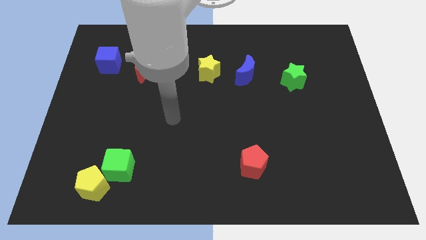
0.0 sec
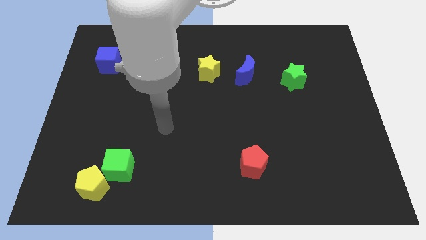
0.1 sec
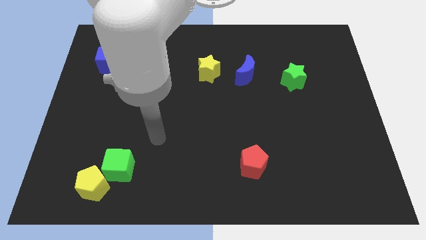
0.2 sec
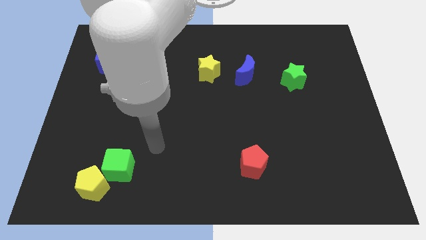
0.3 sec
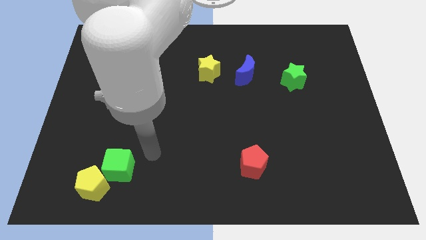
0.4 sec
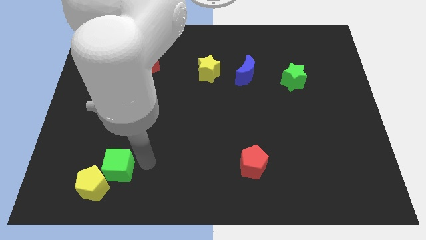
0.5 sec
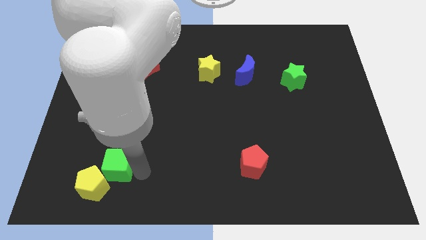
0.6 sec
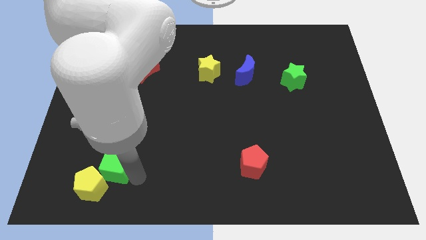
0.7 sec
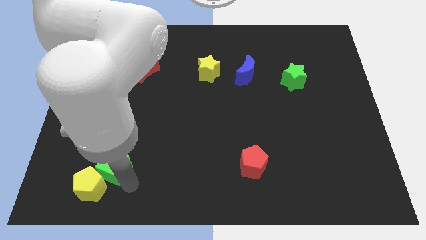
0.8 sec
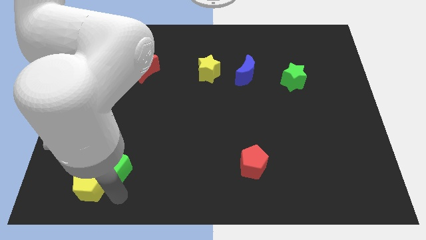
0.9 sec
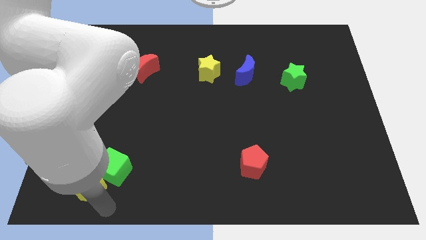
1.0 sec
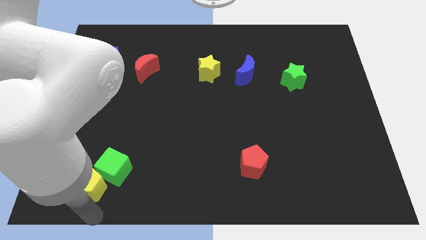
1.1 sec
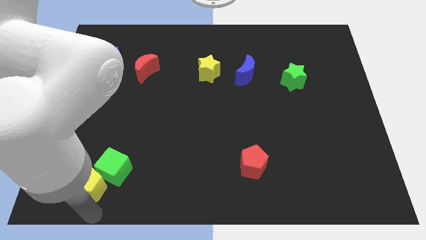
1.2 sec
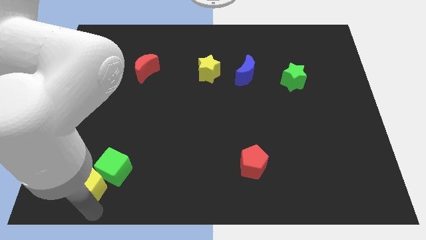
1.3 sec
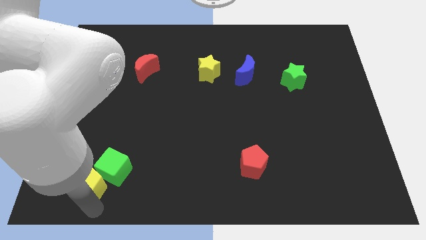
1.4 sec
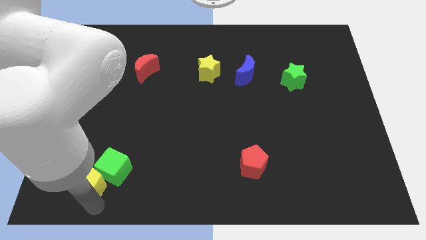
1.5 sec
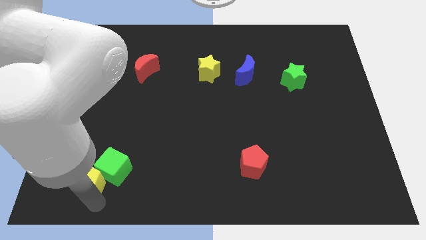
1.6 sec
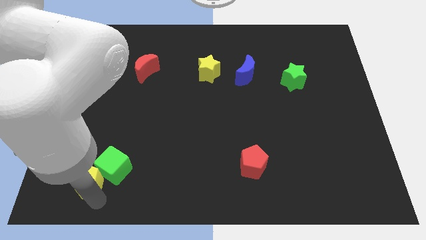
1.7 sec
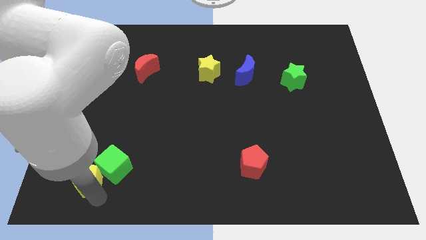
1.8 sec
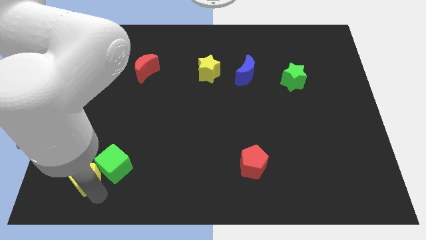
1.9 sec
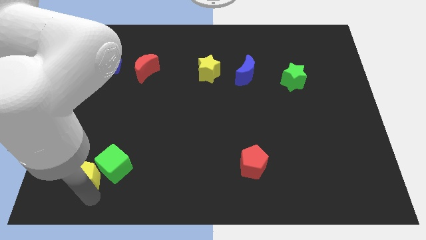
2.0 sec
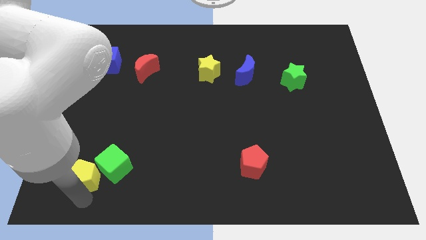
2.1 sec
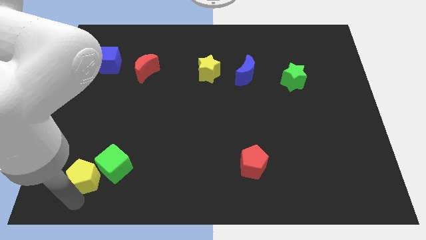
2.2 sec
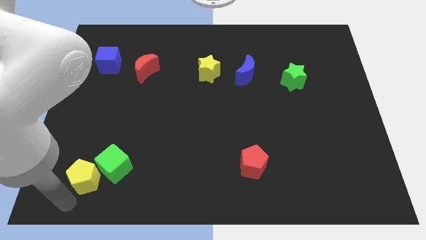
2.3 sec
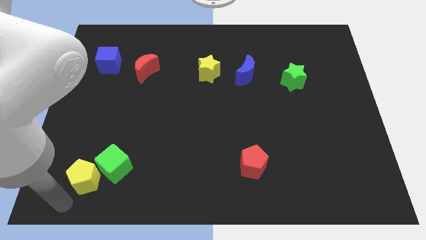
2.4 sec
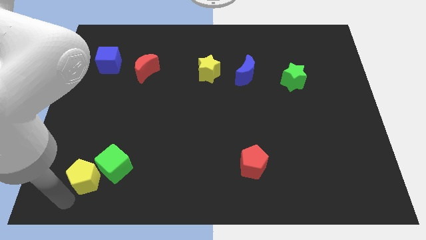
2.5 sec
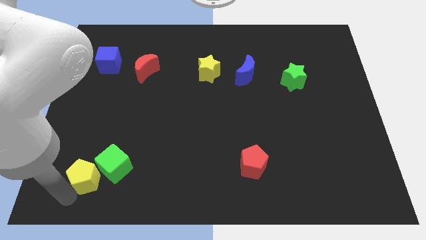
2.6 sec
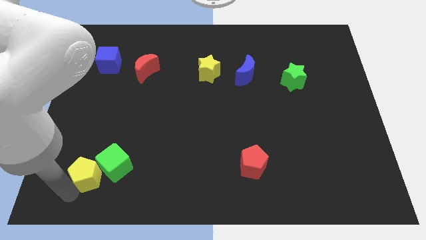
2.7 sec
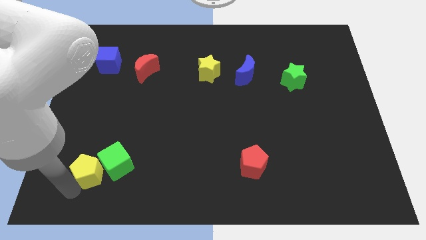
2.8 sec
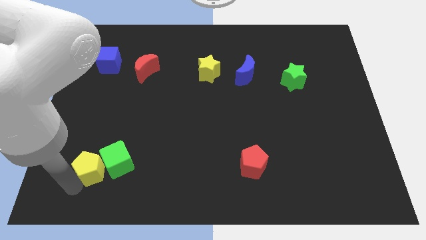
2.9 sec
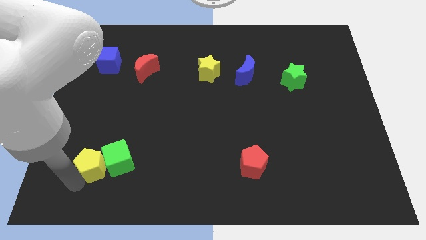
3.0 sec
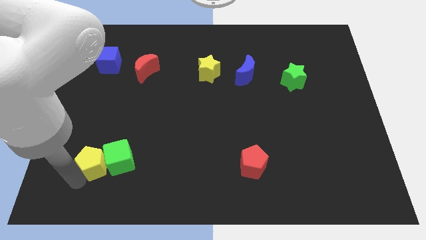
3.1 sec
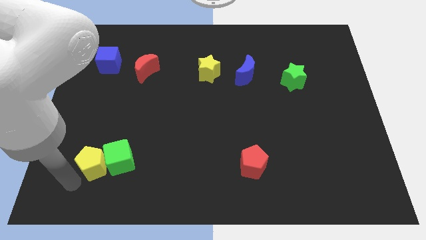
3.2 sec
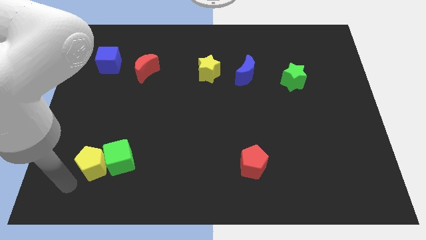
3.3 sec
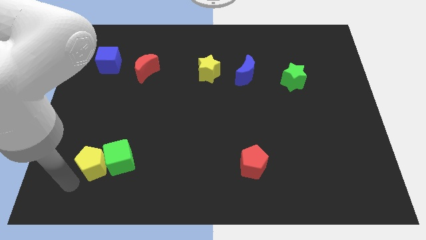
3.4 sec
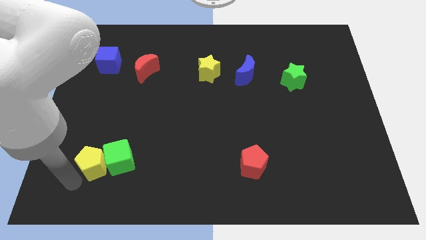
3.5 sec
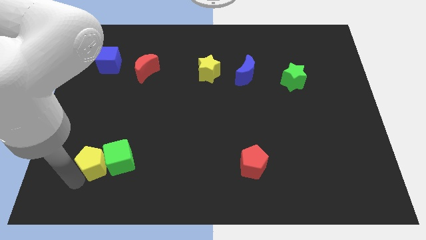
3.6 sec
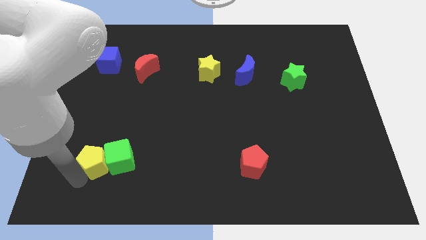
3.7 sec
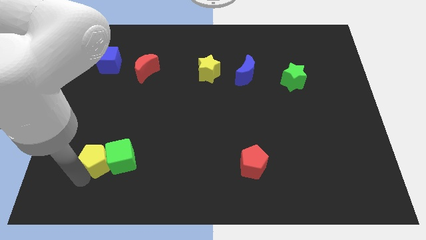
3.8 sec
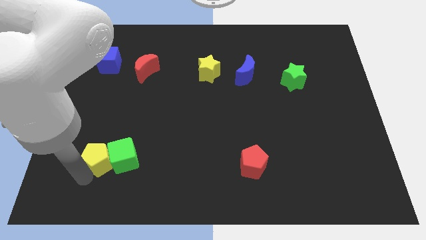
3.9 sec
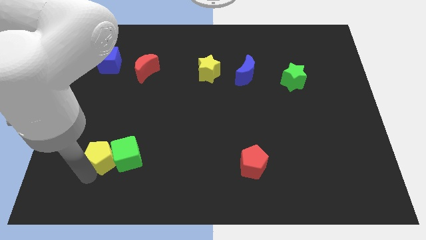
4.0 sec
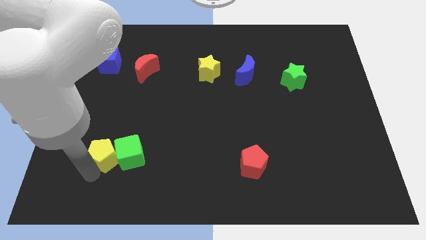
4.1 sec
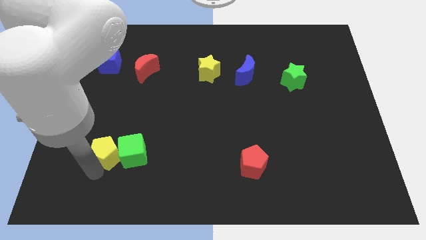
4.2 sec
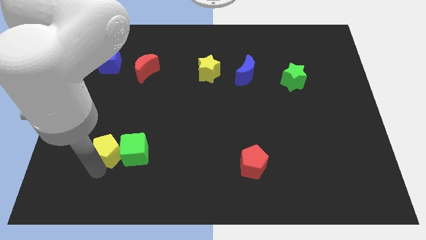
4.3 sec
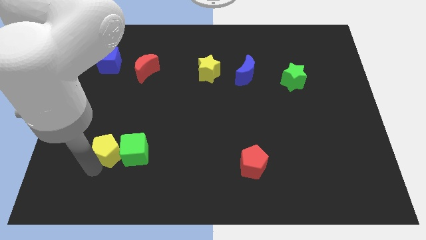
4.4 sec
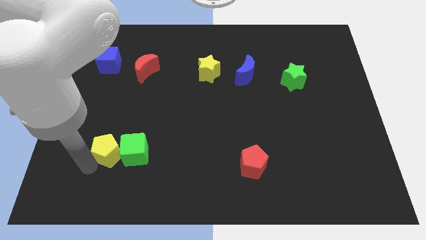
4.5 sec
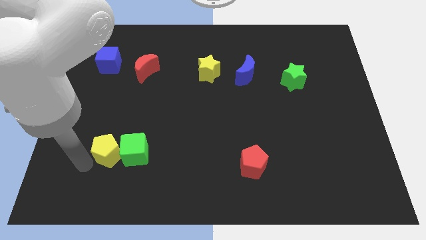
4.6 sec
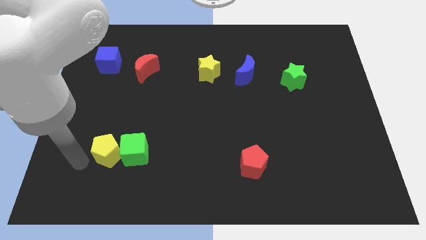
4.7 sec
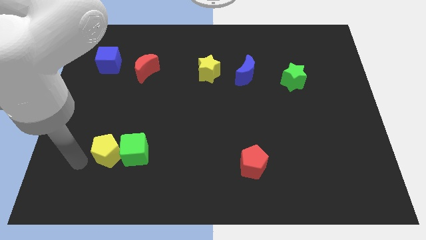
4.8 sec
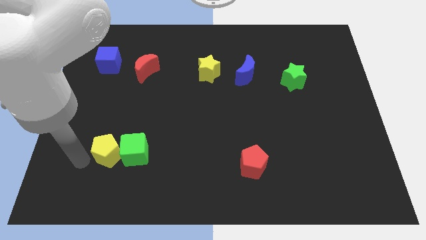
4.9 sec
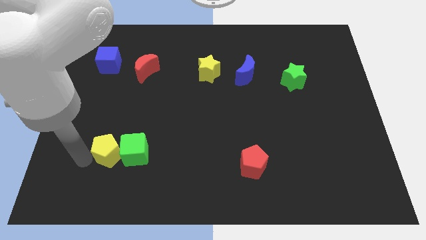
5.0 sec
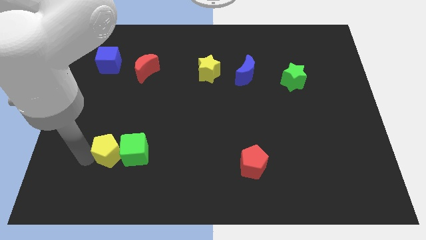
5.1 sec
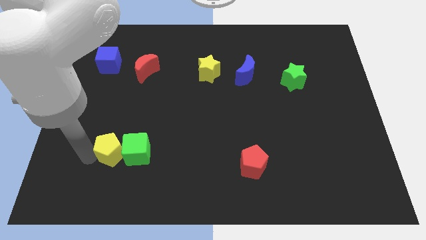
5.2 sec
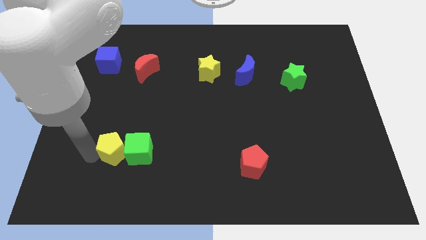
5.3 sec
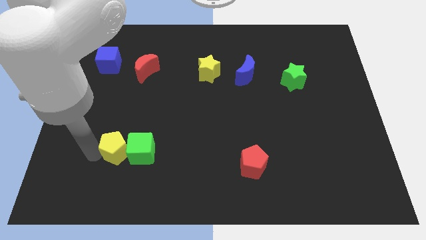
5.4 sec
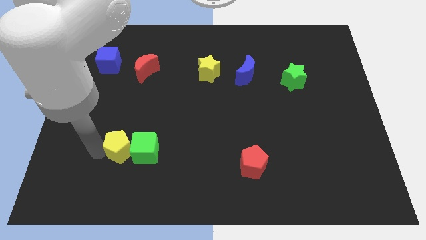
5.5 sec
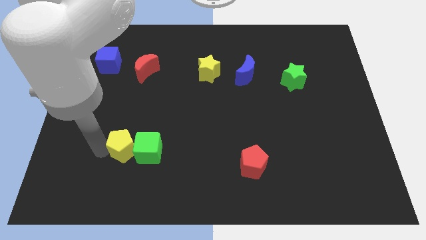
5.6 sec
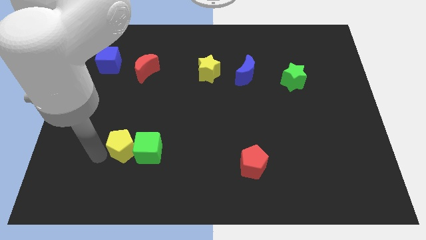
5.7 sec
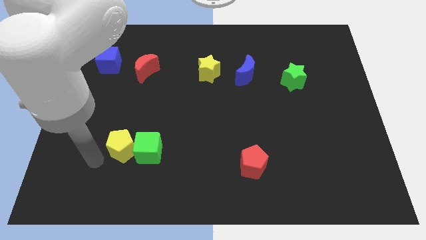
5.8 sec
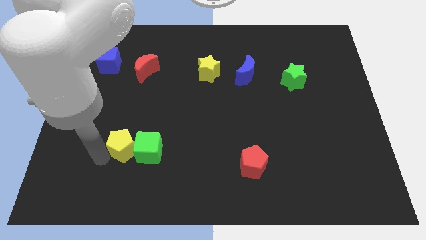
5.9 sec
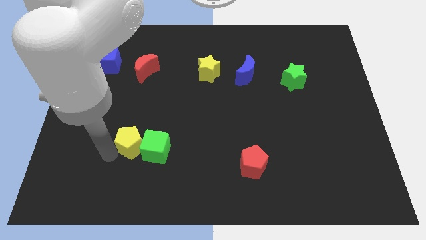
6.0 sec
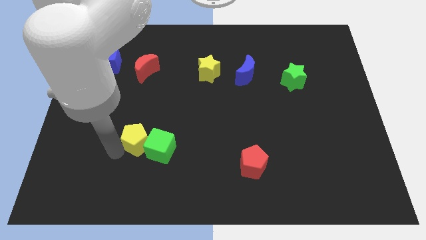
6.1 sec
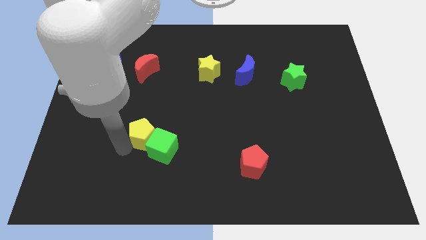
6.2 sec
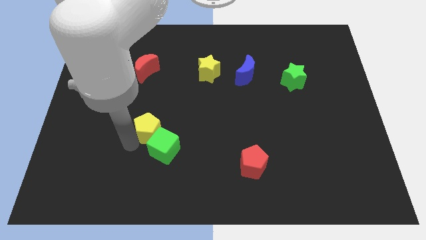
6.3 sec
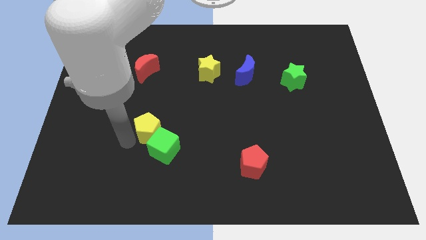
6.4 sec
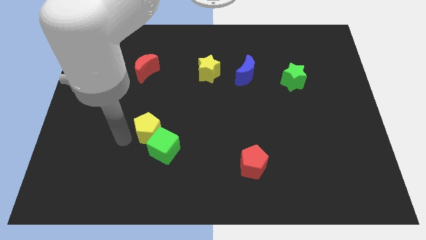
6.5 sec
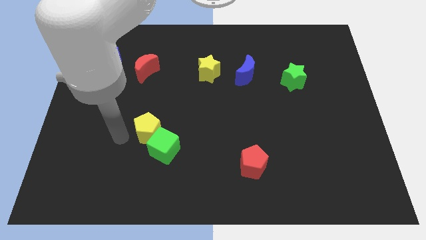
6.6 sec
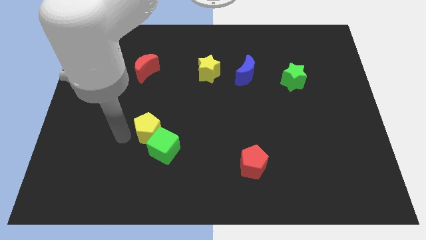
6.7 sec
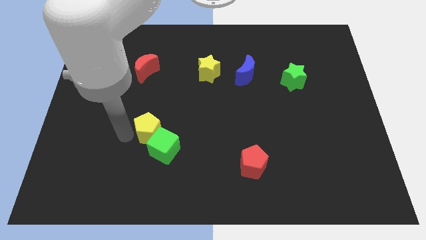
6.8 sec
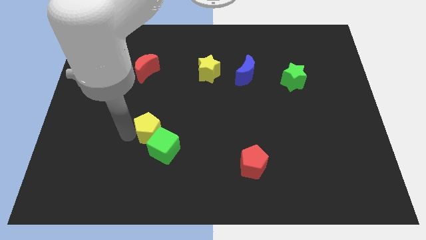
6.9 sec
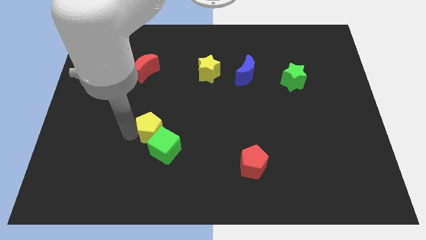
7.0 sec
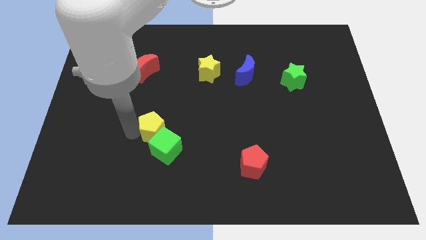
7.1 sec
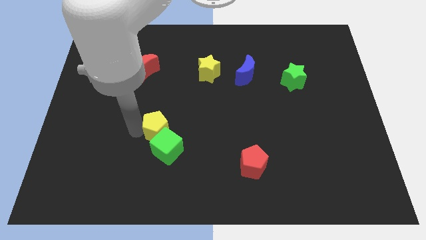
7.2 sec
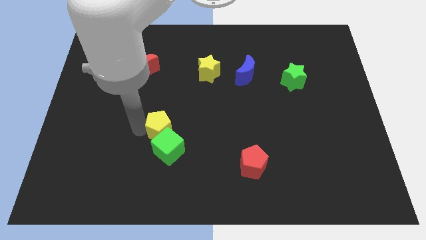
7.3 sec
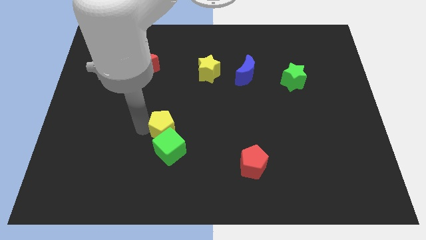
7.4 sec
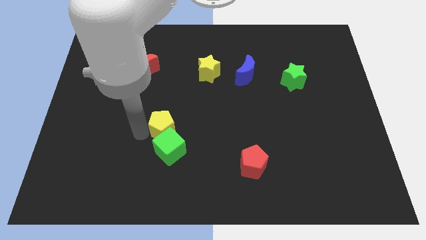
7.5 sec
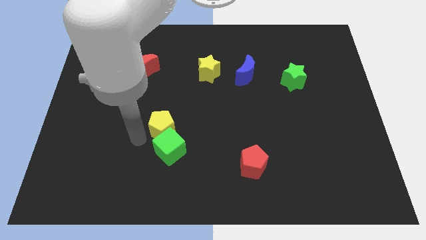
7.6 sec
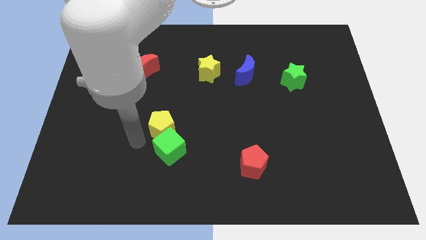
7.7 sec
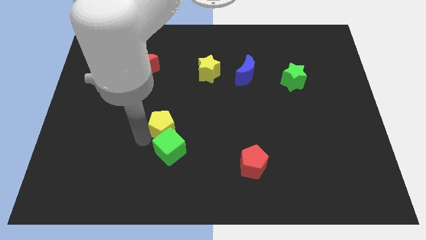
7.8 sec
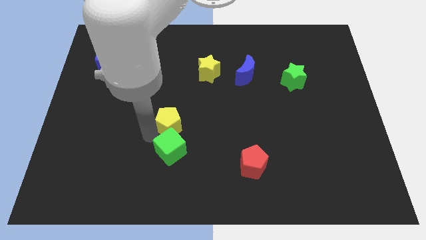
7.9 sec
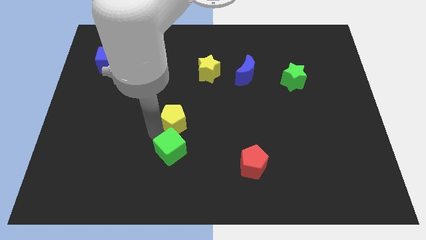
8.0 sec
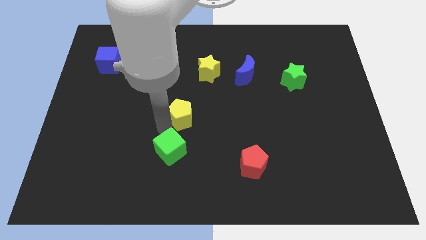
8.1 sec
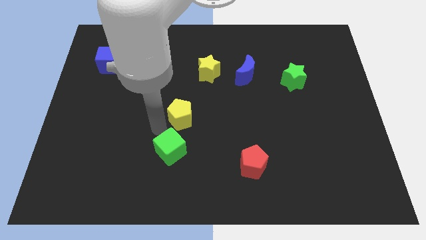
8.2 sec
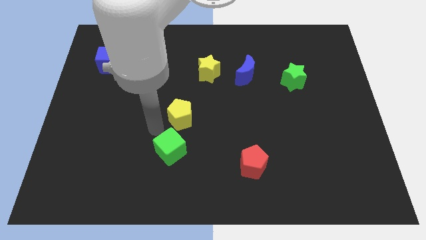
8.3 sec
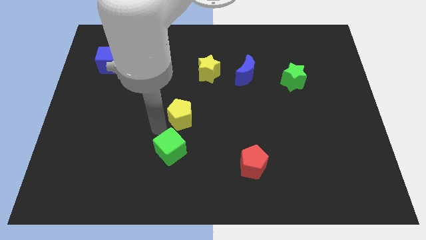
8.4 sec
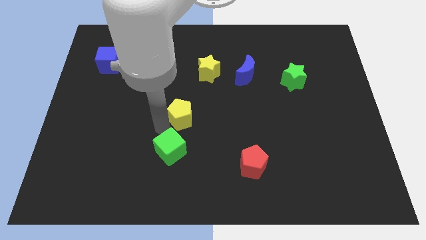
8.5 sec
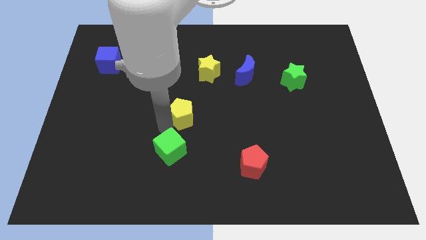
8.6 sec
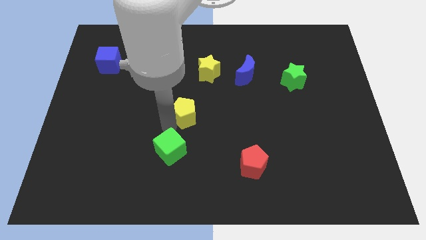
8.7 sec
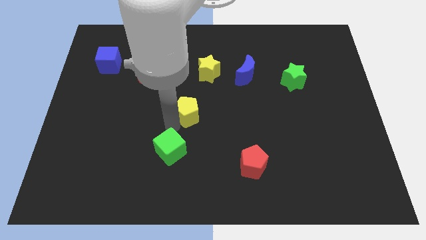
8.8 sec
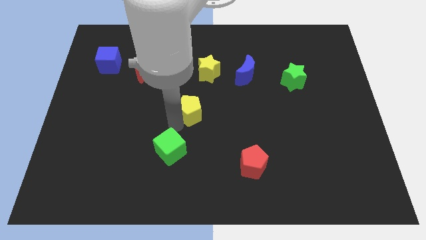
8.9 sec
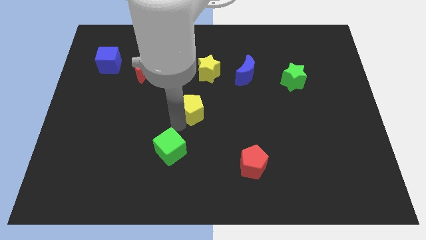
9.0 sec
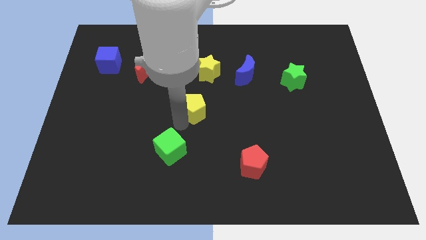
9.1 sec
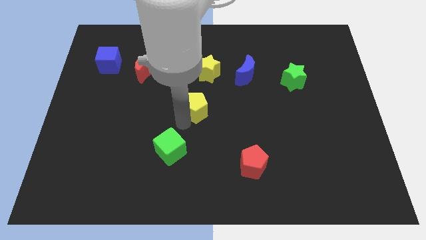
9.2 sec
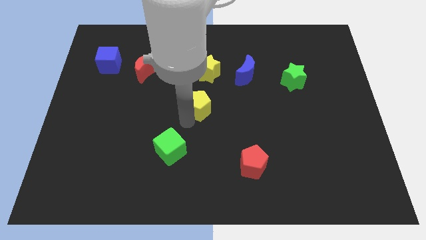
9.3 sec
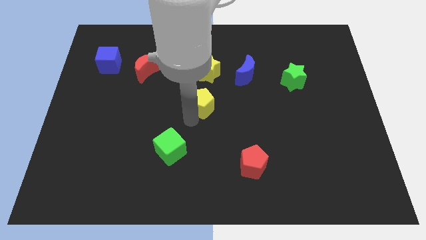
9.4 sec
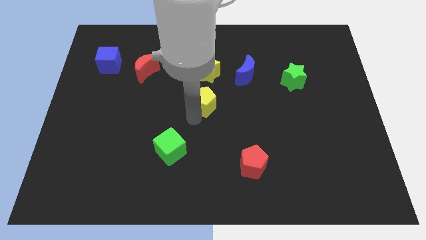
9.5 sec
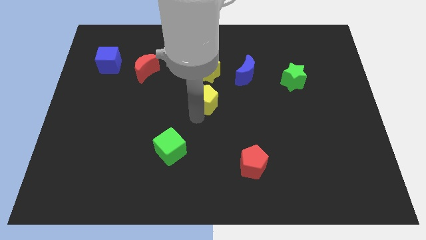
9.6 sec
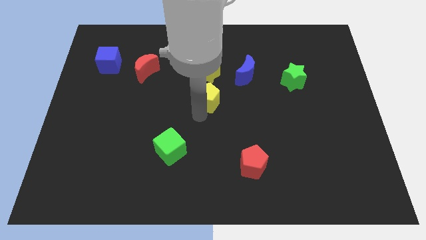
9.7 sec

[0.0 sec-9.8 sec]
push the yellow pentagon to the bottom left side of the blue moon
